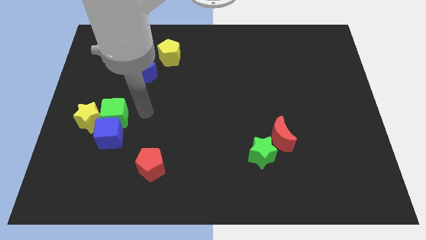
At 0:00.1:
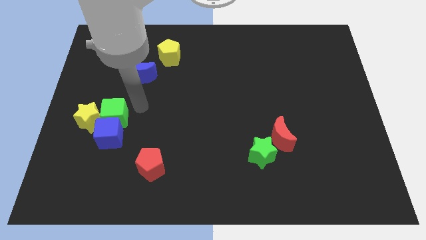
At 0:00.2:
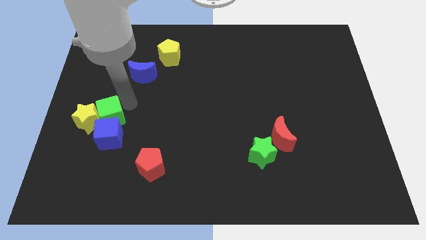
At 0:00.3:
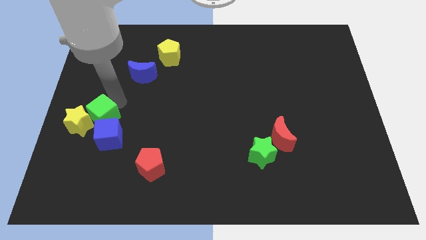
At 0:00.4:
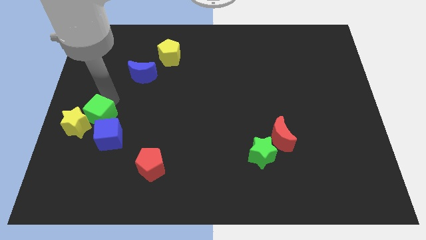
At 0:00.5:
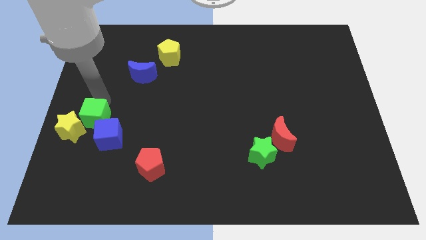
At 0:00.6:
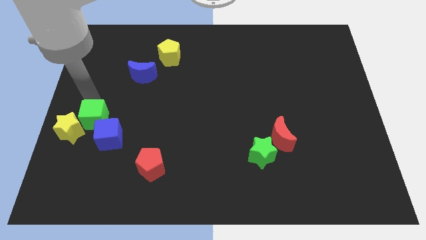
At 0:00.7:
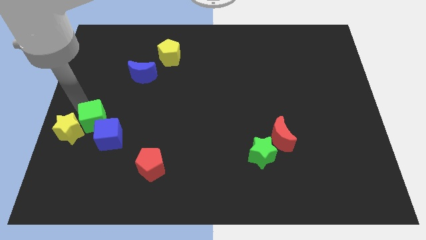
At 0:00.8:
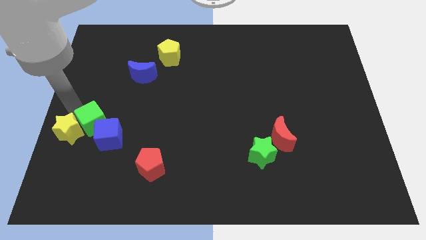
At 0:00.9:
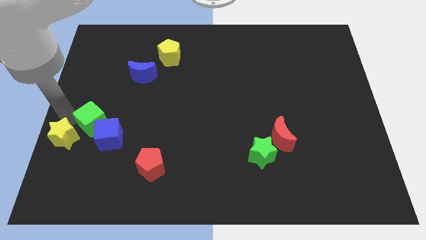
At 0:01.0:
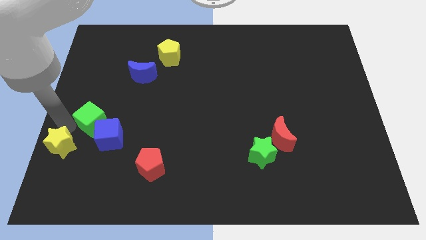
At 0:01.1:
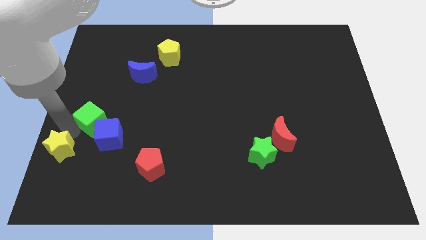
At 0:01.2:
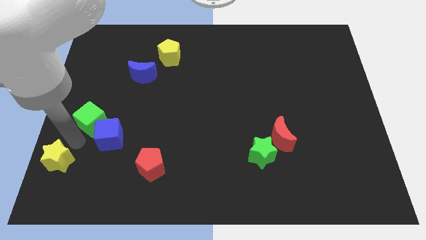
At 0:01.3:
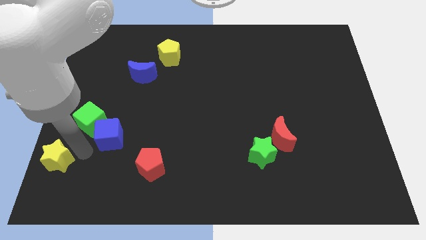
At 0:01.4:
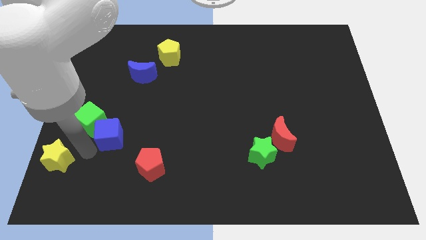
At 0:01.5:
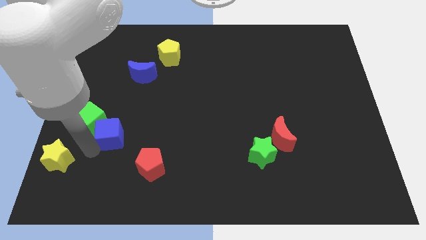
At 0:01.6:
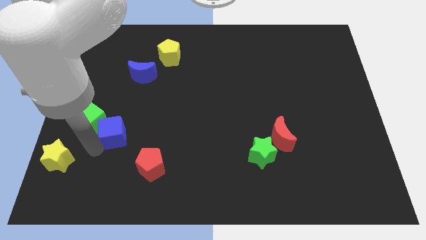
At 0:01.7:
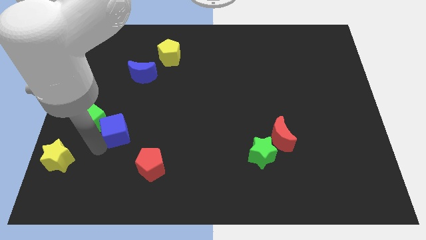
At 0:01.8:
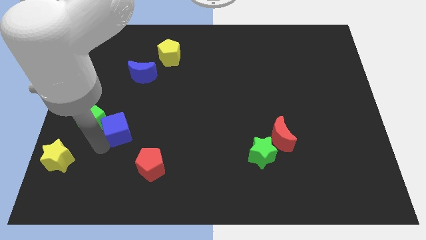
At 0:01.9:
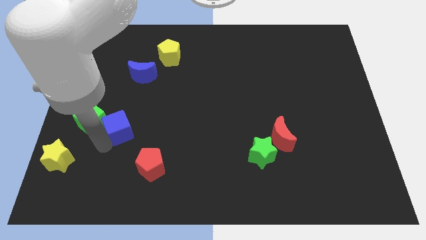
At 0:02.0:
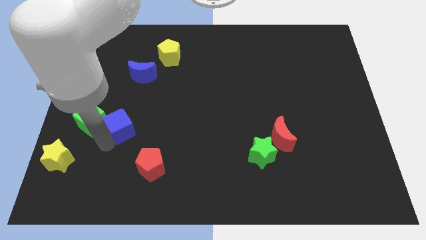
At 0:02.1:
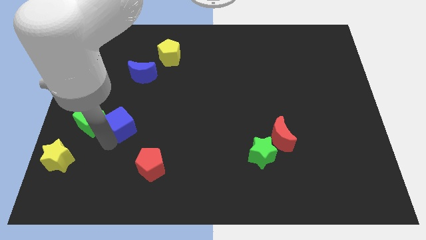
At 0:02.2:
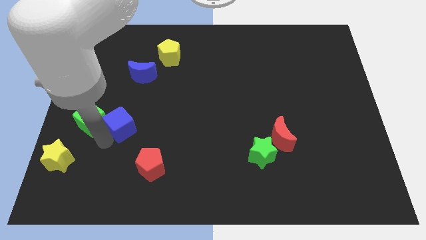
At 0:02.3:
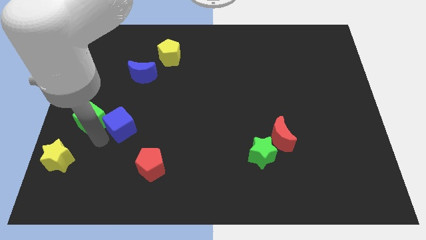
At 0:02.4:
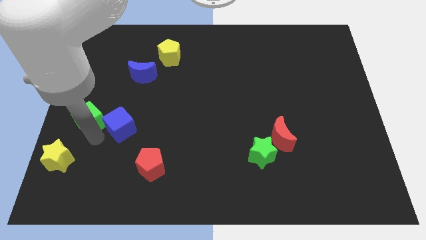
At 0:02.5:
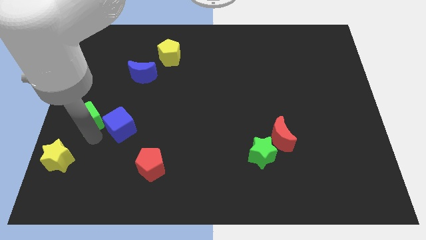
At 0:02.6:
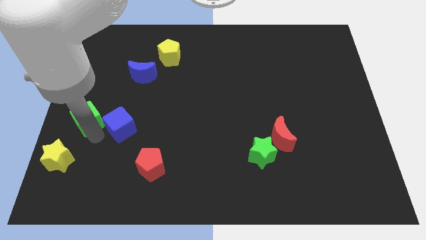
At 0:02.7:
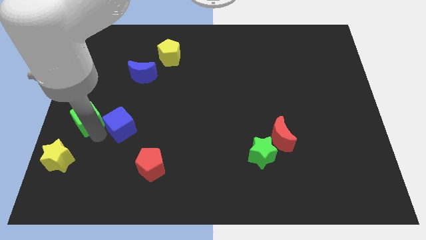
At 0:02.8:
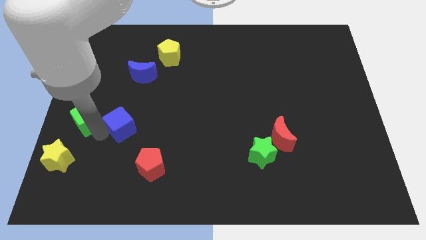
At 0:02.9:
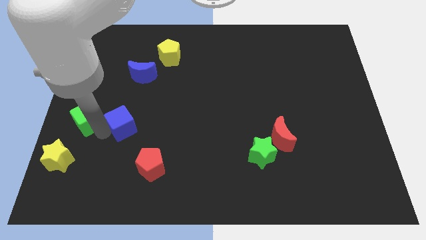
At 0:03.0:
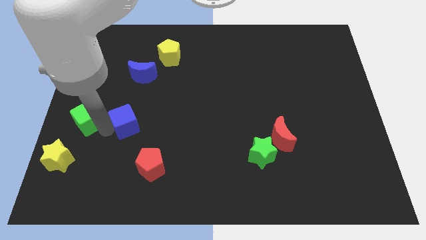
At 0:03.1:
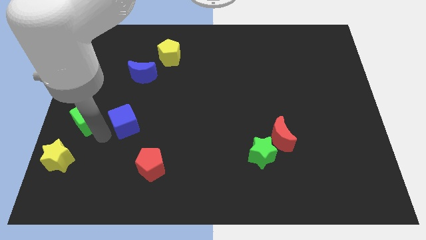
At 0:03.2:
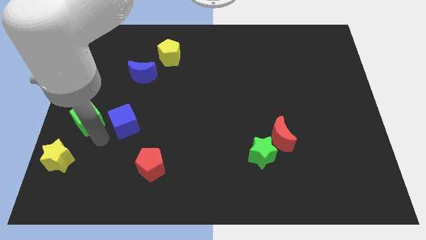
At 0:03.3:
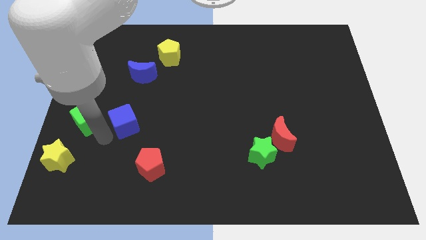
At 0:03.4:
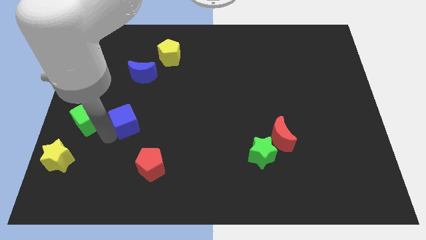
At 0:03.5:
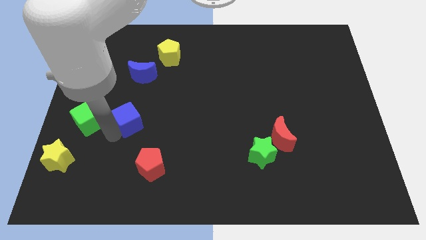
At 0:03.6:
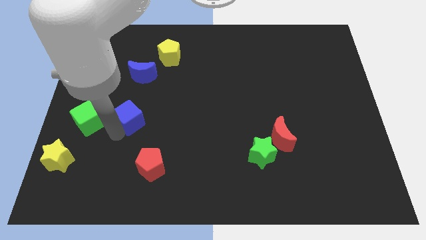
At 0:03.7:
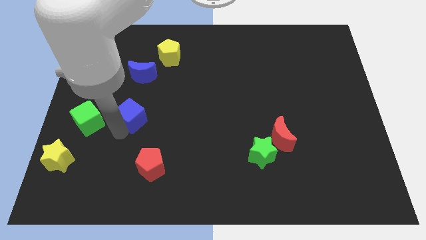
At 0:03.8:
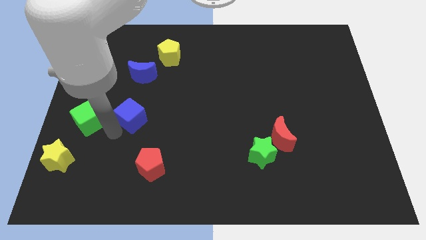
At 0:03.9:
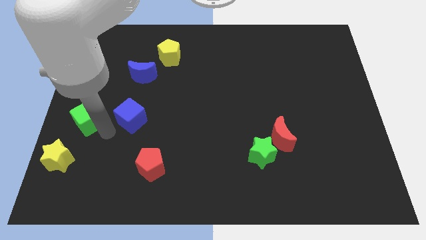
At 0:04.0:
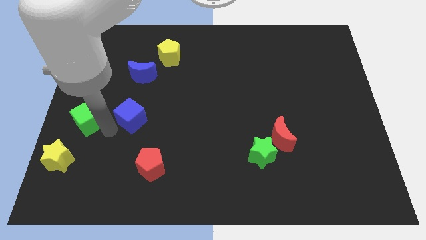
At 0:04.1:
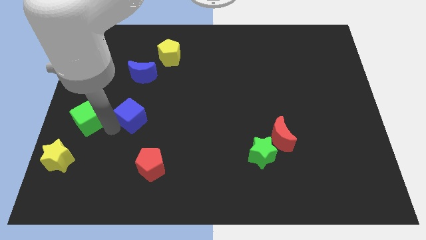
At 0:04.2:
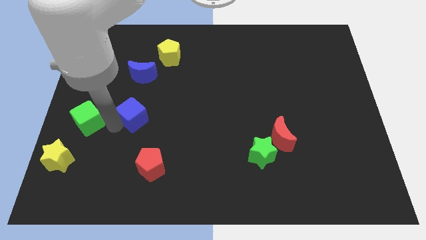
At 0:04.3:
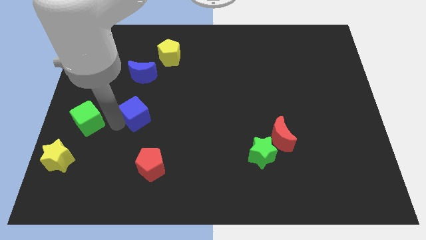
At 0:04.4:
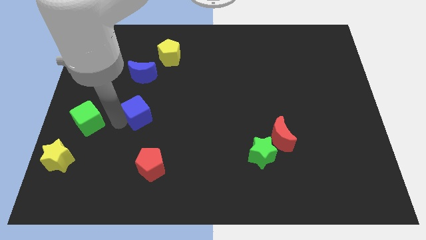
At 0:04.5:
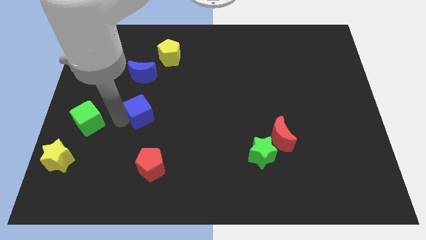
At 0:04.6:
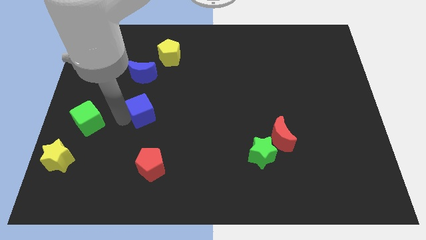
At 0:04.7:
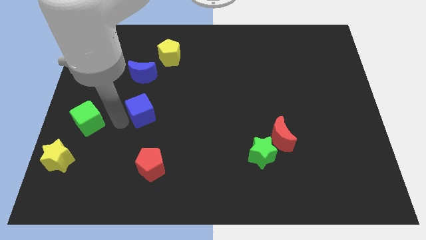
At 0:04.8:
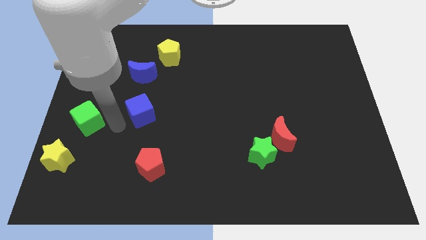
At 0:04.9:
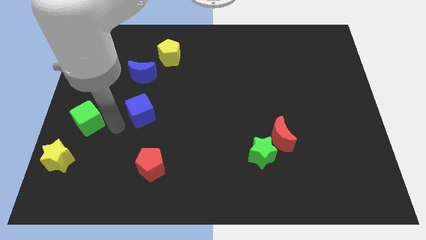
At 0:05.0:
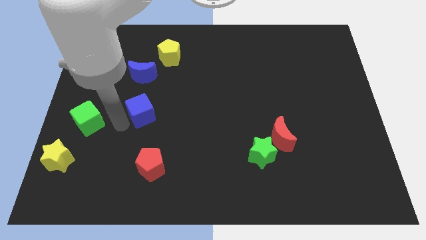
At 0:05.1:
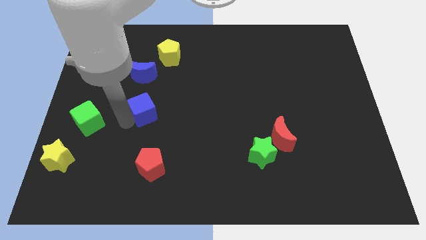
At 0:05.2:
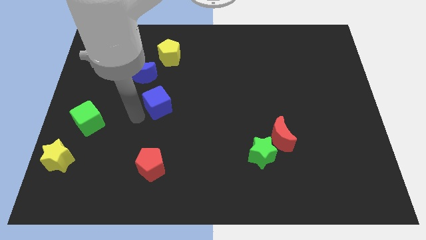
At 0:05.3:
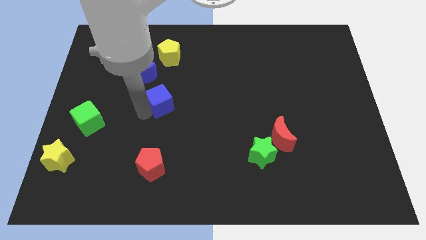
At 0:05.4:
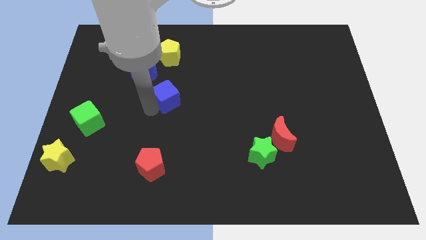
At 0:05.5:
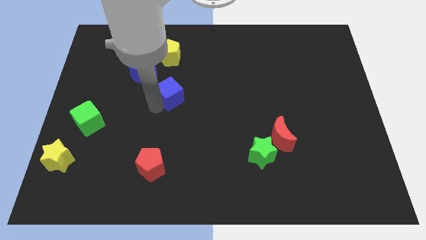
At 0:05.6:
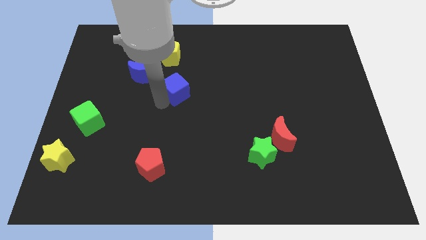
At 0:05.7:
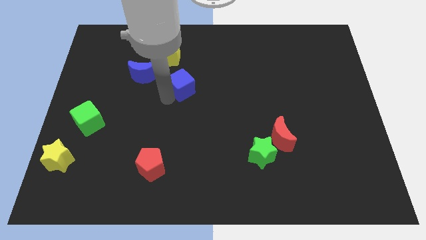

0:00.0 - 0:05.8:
push the blue cube up and to the right diagonally

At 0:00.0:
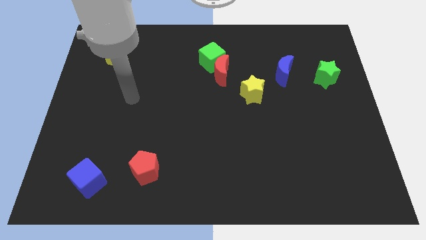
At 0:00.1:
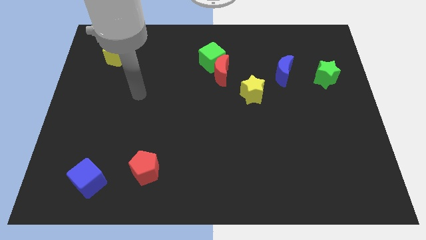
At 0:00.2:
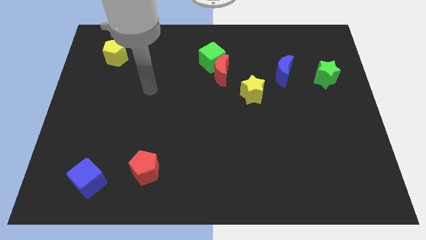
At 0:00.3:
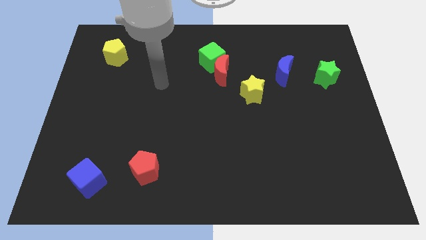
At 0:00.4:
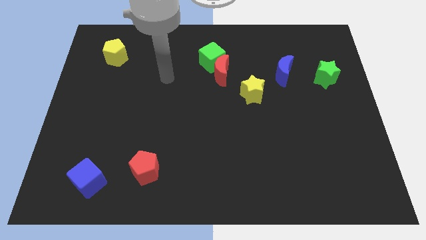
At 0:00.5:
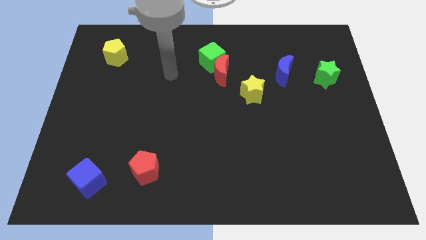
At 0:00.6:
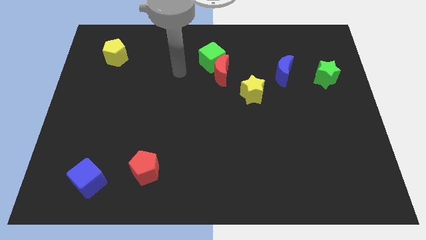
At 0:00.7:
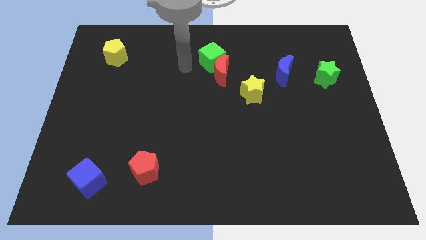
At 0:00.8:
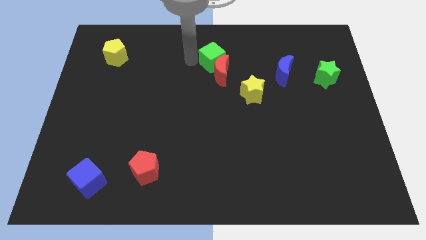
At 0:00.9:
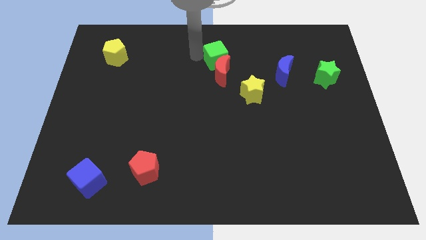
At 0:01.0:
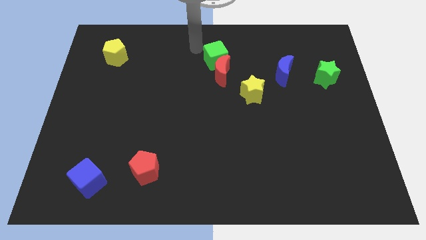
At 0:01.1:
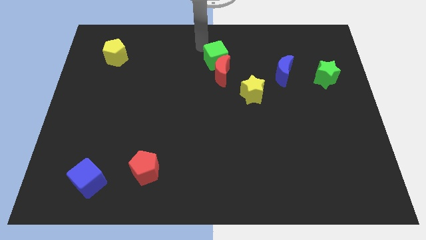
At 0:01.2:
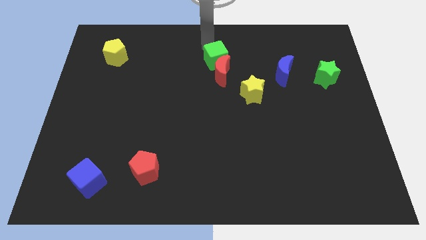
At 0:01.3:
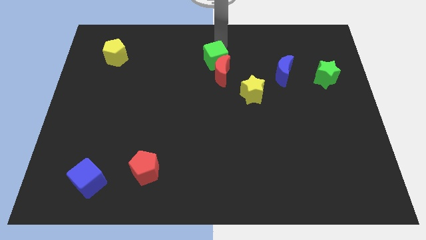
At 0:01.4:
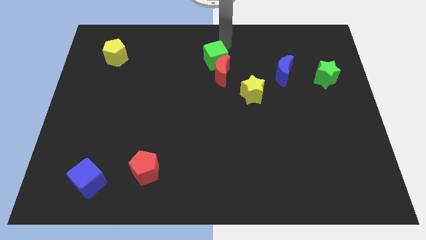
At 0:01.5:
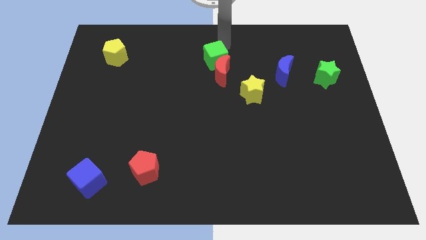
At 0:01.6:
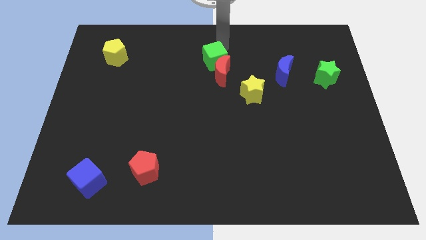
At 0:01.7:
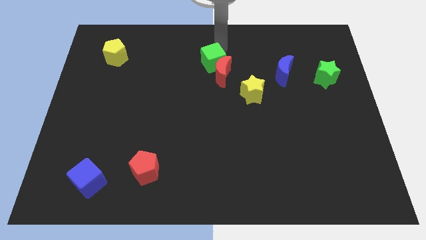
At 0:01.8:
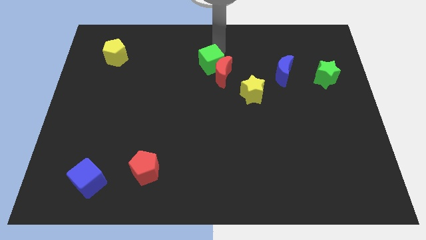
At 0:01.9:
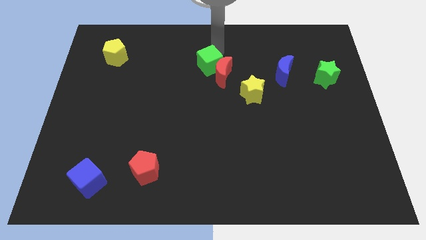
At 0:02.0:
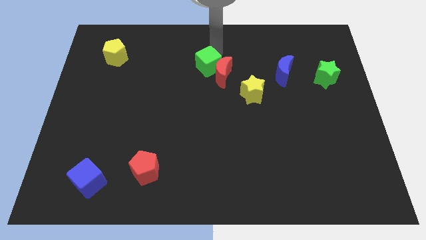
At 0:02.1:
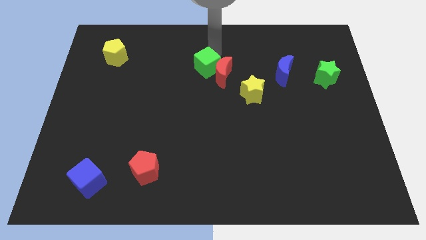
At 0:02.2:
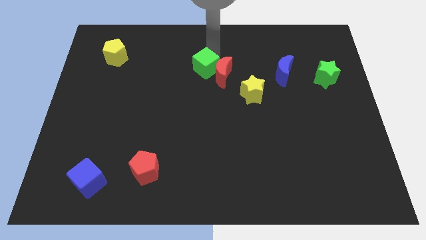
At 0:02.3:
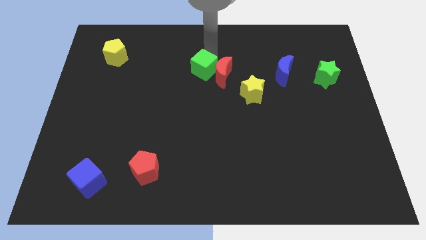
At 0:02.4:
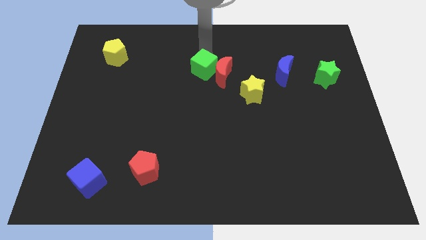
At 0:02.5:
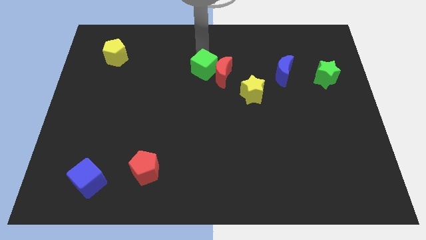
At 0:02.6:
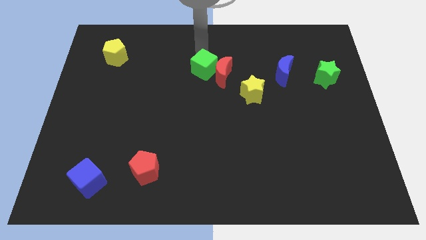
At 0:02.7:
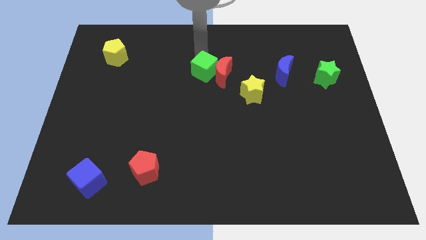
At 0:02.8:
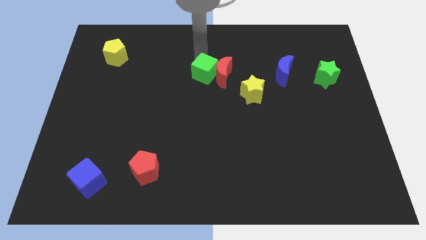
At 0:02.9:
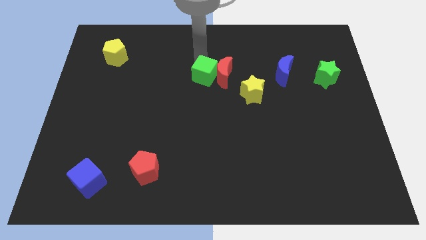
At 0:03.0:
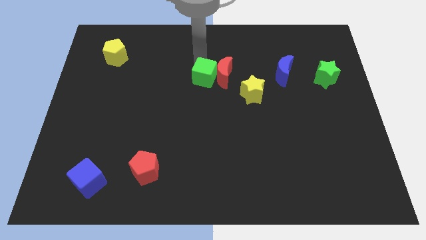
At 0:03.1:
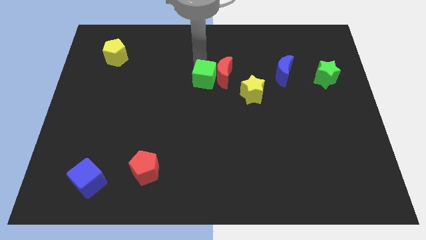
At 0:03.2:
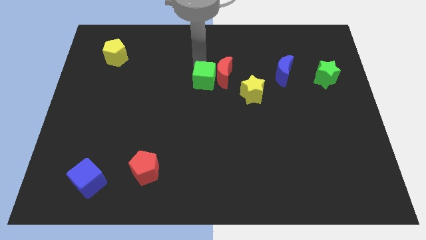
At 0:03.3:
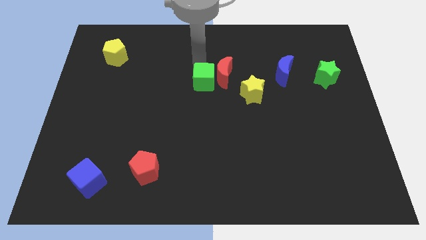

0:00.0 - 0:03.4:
slightly push the green cube down
